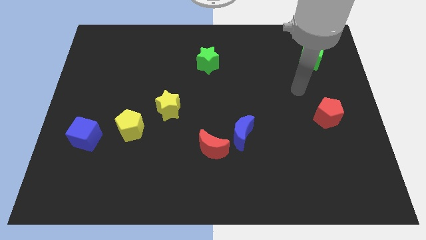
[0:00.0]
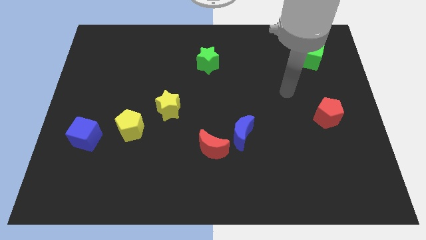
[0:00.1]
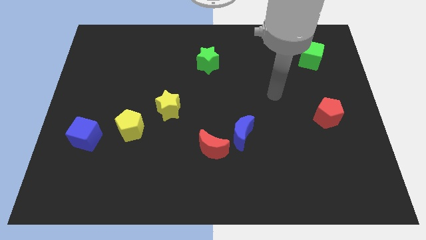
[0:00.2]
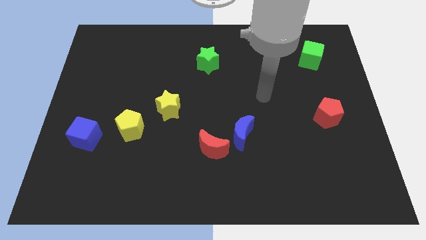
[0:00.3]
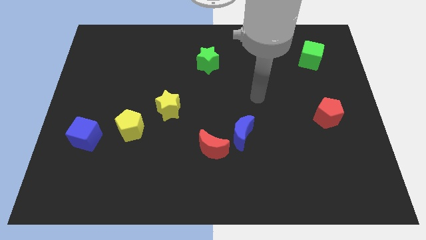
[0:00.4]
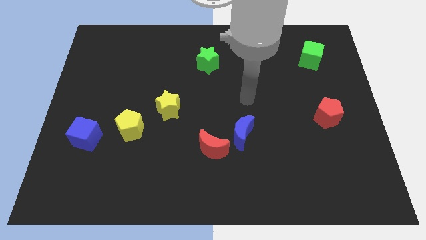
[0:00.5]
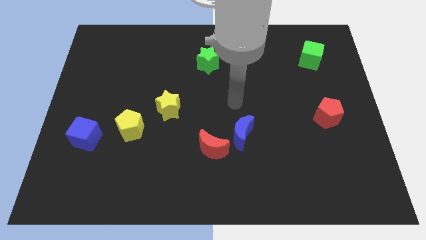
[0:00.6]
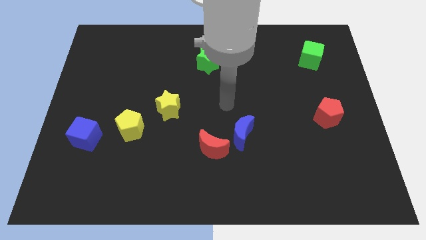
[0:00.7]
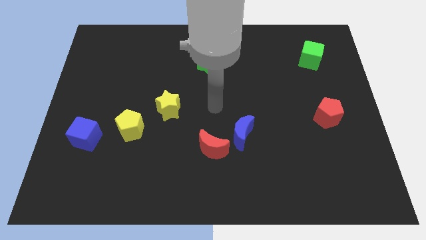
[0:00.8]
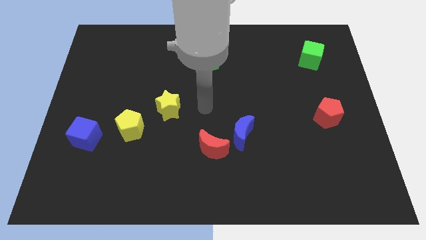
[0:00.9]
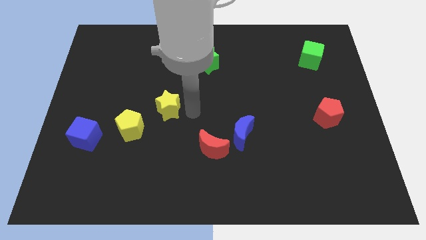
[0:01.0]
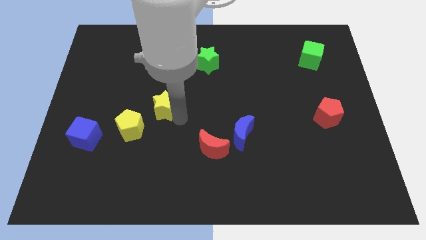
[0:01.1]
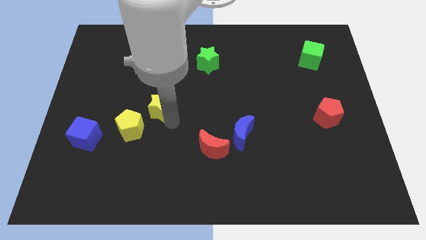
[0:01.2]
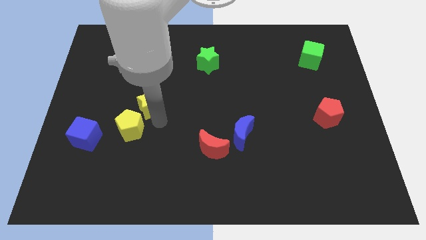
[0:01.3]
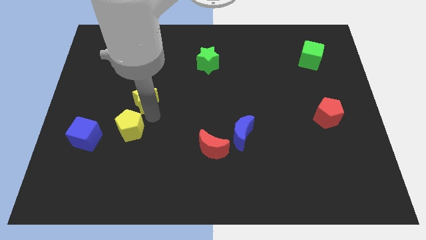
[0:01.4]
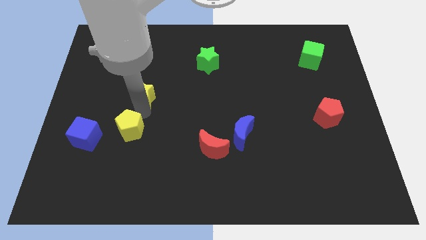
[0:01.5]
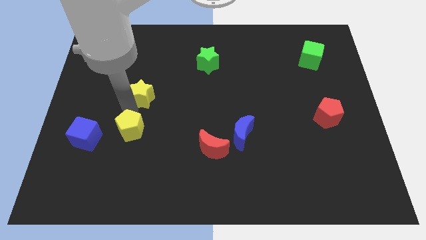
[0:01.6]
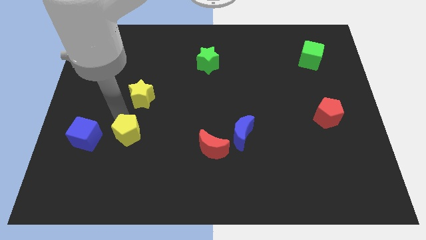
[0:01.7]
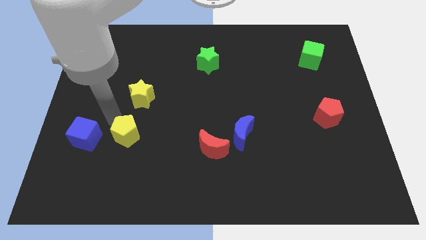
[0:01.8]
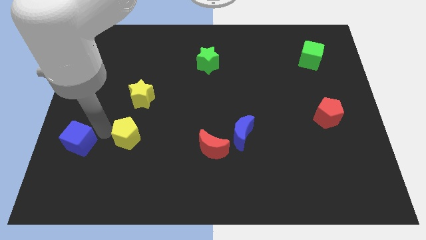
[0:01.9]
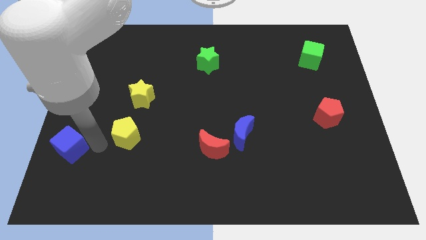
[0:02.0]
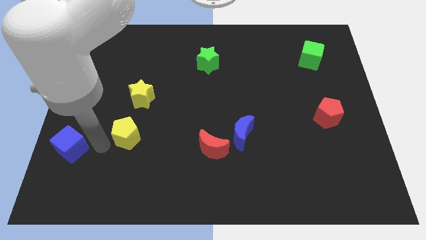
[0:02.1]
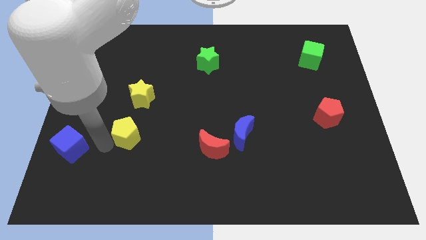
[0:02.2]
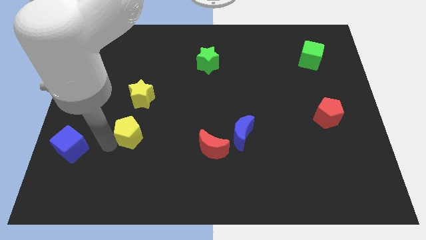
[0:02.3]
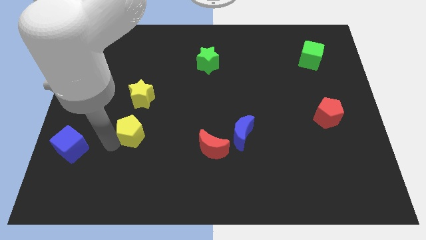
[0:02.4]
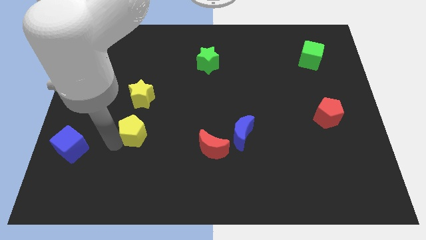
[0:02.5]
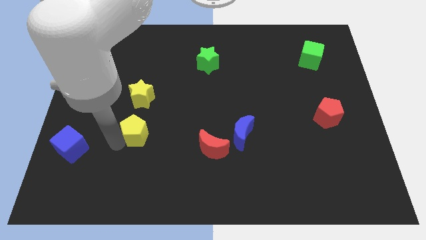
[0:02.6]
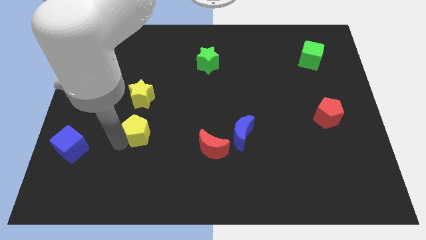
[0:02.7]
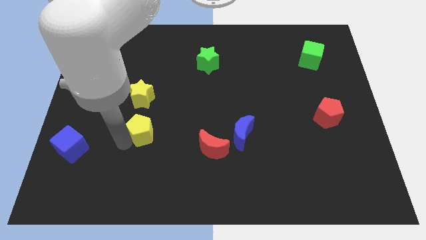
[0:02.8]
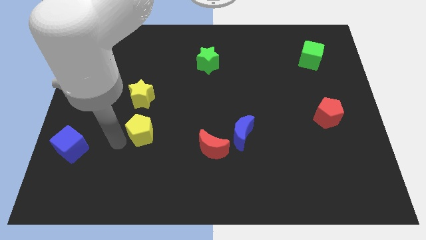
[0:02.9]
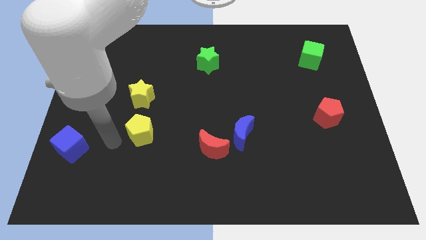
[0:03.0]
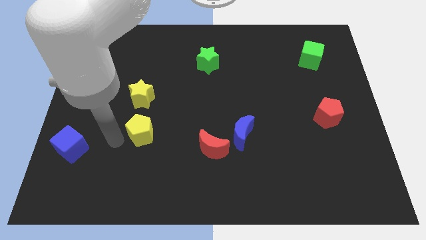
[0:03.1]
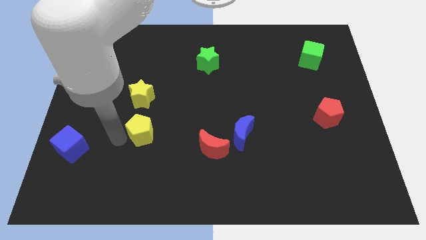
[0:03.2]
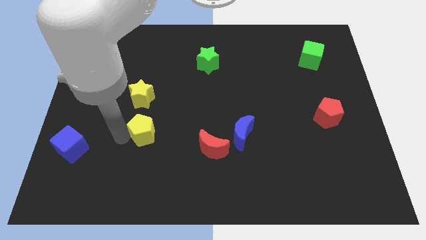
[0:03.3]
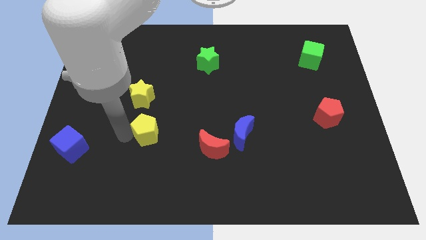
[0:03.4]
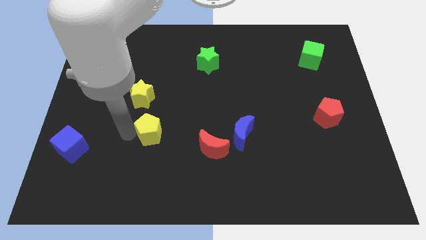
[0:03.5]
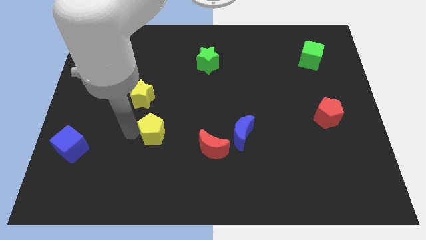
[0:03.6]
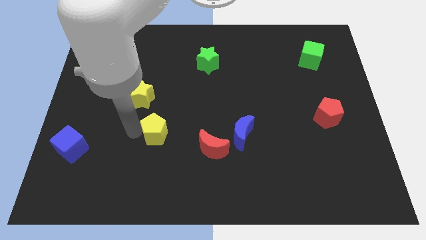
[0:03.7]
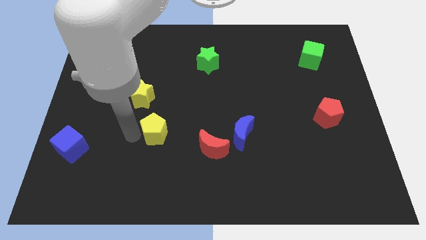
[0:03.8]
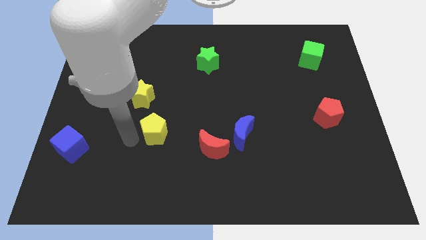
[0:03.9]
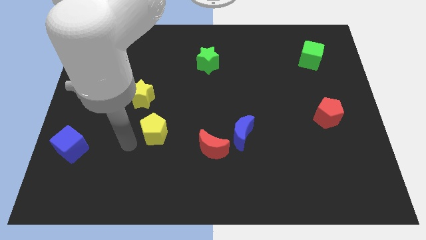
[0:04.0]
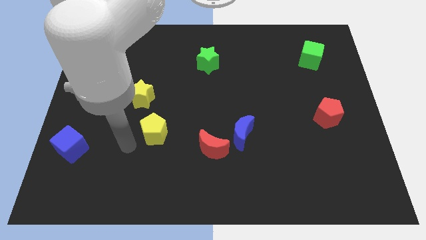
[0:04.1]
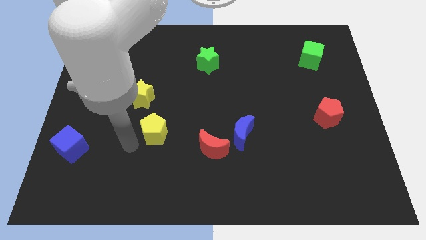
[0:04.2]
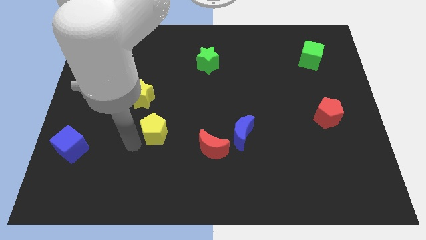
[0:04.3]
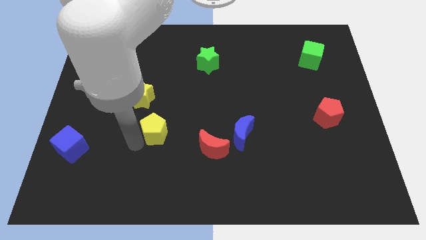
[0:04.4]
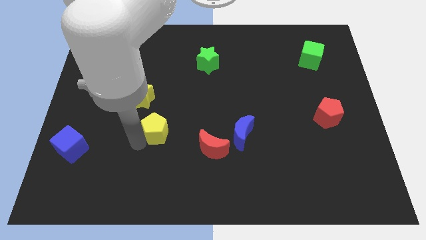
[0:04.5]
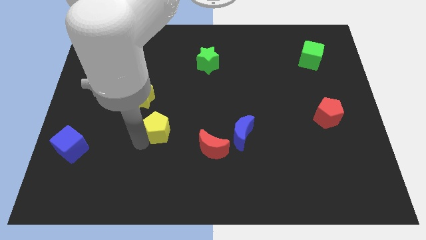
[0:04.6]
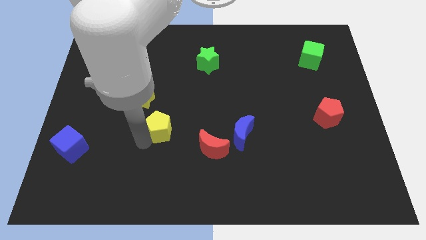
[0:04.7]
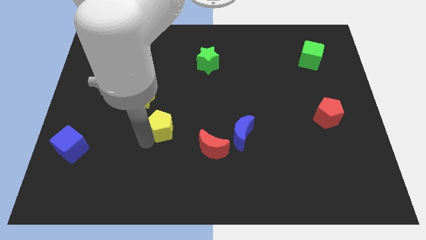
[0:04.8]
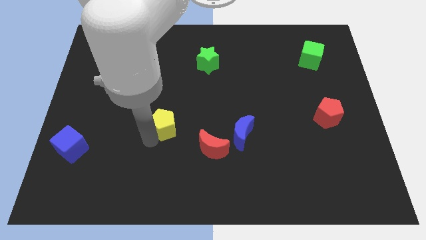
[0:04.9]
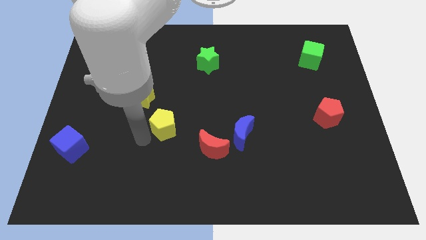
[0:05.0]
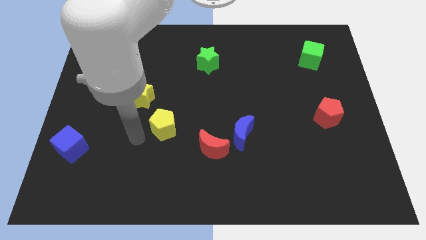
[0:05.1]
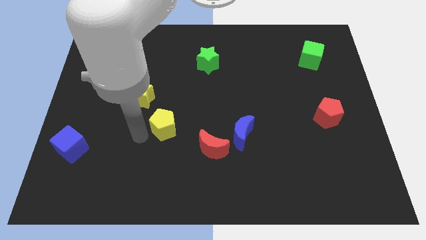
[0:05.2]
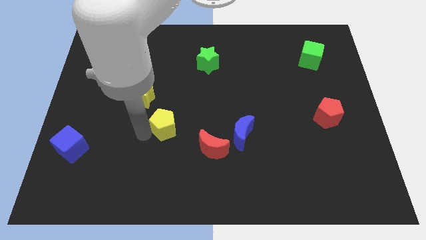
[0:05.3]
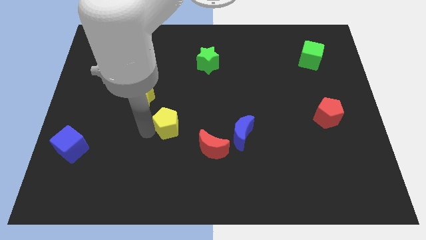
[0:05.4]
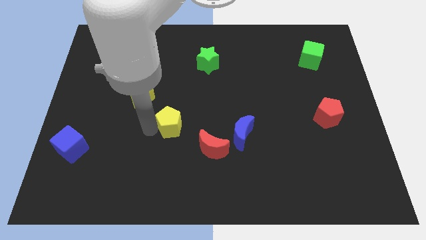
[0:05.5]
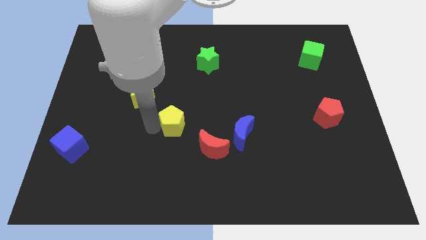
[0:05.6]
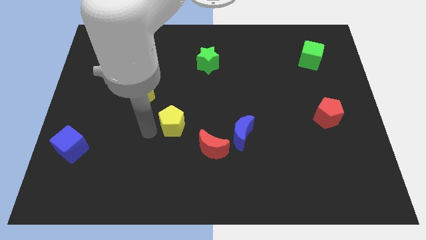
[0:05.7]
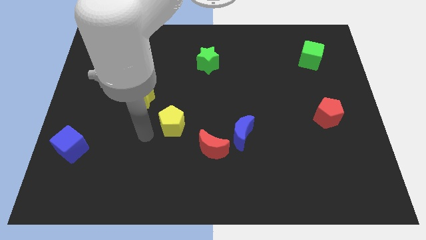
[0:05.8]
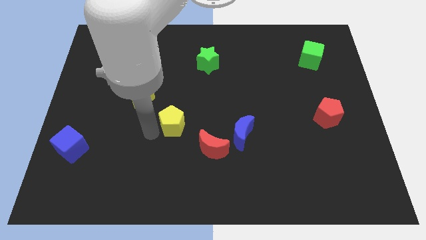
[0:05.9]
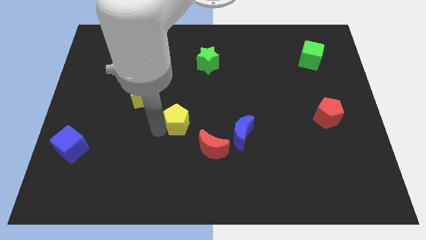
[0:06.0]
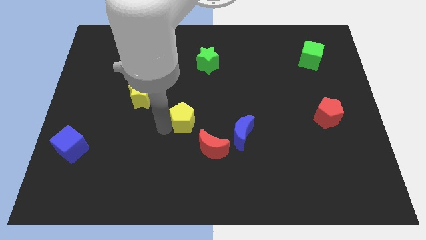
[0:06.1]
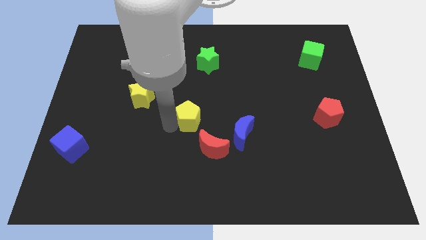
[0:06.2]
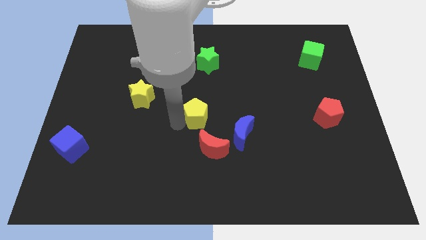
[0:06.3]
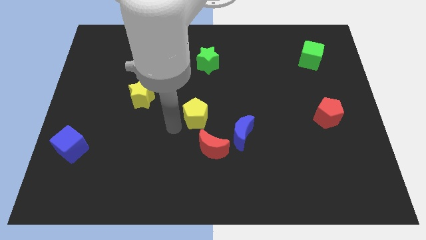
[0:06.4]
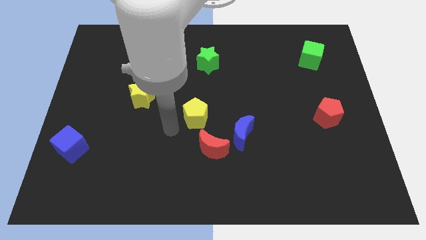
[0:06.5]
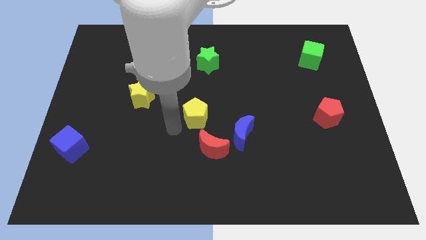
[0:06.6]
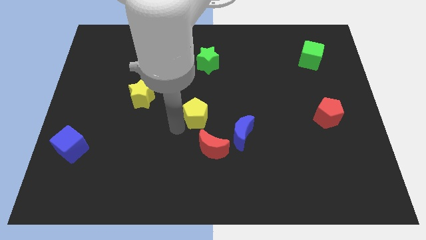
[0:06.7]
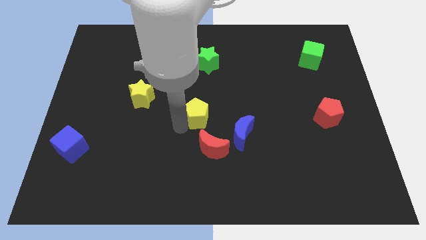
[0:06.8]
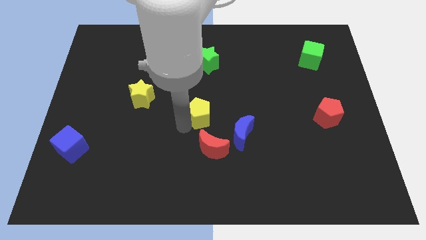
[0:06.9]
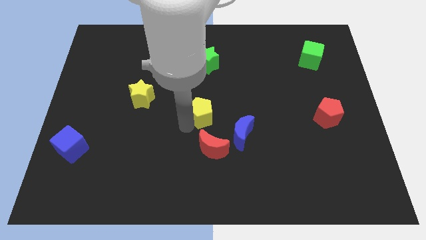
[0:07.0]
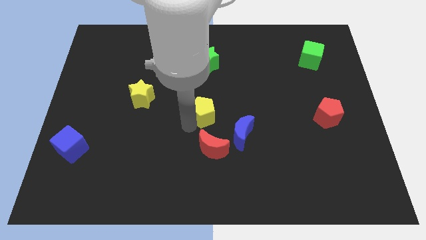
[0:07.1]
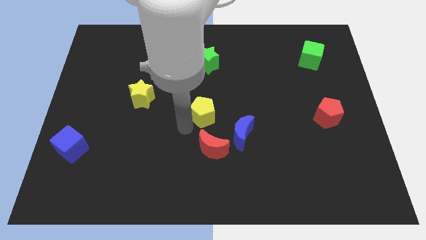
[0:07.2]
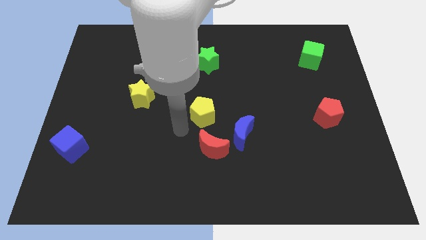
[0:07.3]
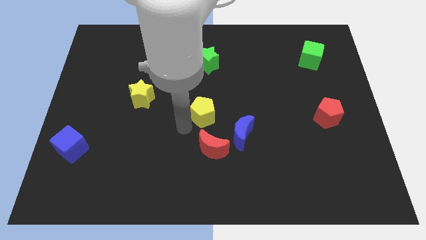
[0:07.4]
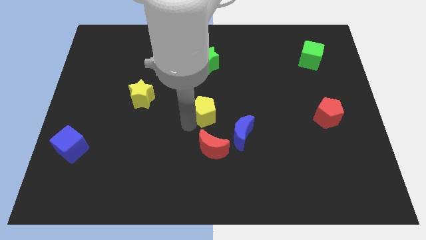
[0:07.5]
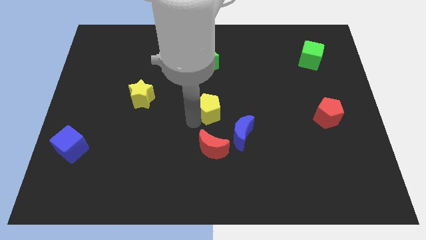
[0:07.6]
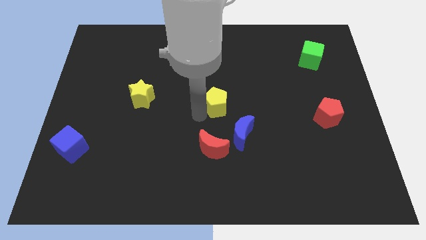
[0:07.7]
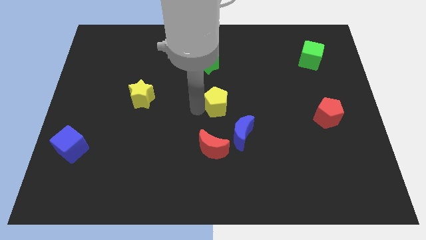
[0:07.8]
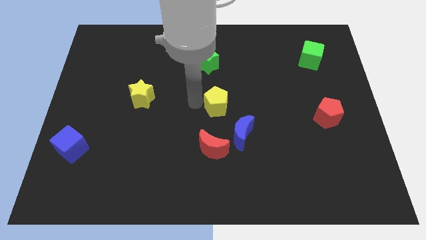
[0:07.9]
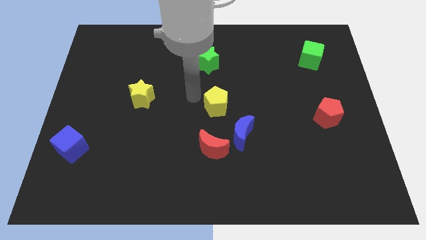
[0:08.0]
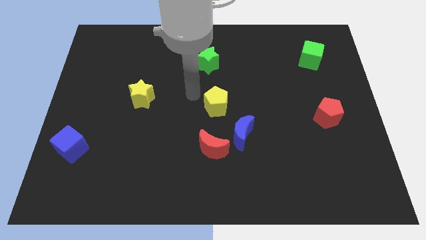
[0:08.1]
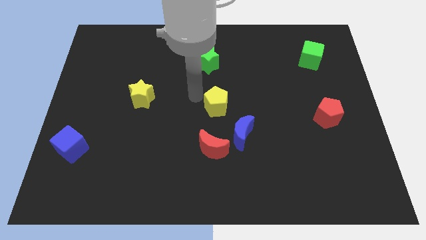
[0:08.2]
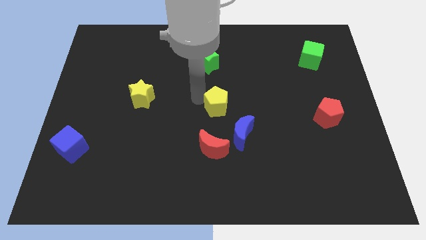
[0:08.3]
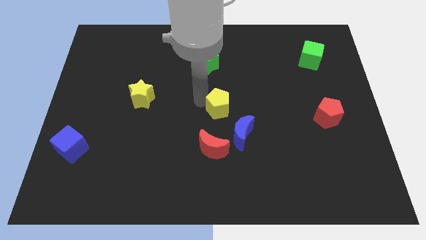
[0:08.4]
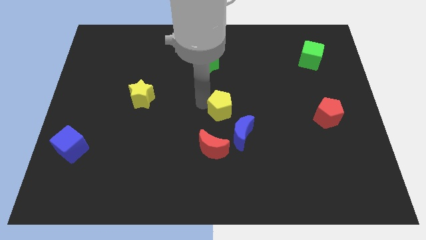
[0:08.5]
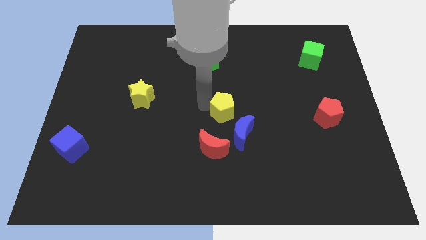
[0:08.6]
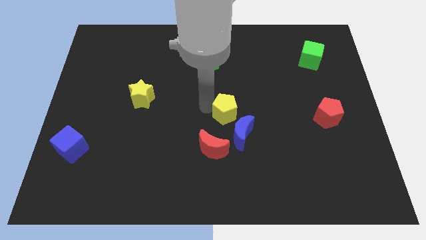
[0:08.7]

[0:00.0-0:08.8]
put the yellow pentagon diagonally up and to the right of the red moon
